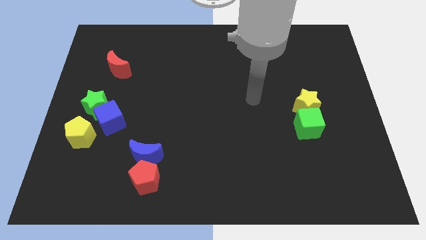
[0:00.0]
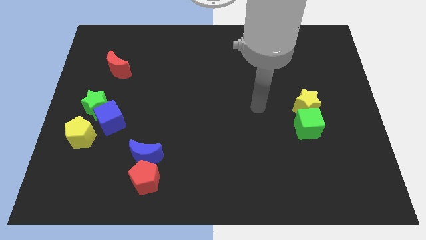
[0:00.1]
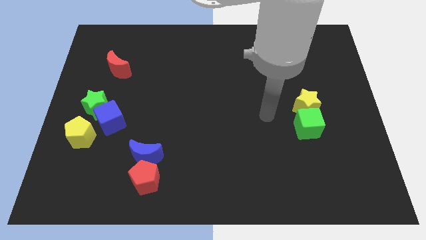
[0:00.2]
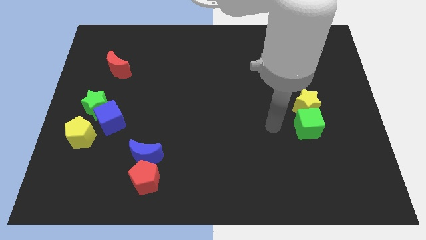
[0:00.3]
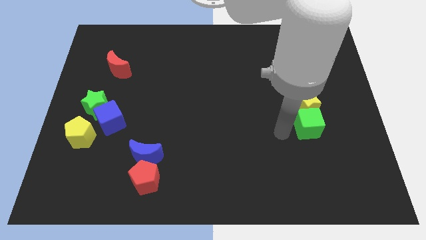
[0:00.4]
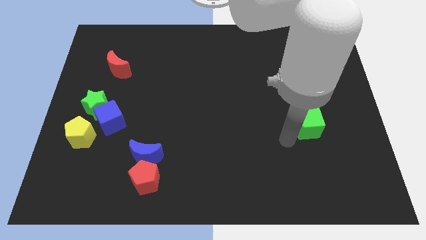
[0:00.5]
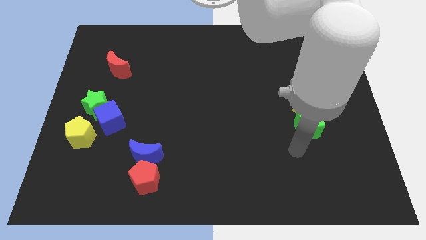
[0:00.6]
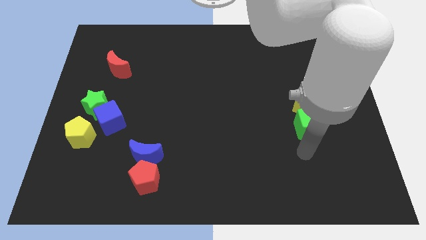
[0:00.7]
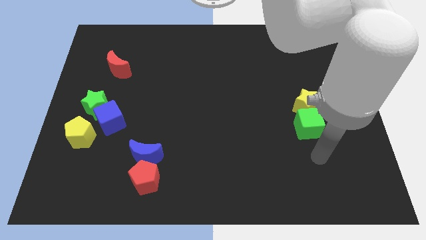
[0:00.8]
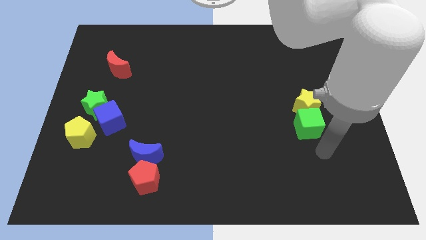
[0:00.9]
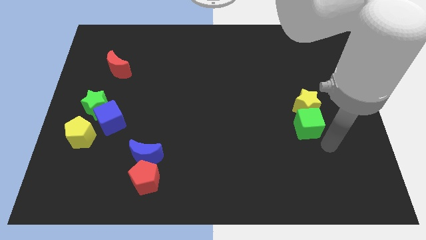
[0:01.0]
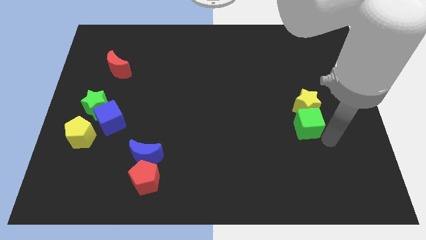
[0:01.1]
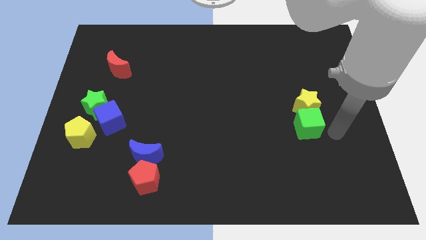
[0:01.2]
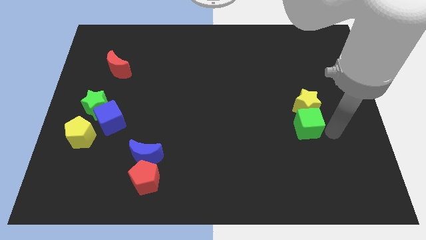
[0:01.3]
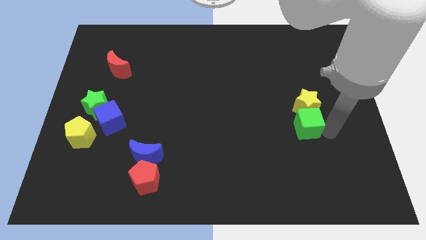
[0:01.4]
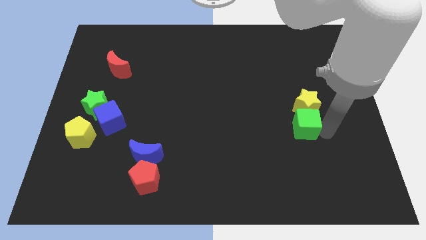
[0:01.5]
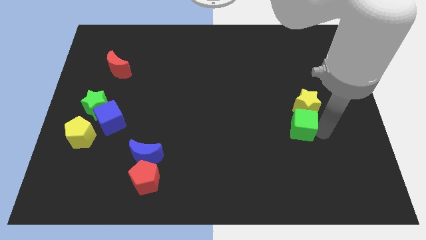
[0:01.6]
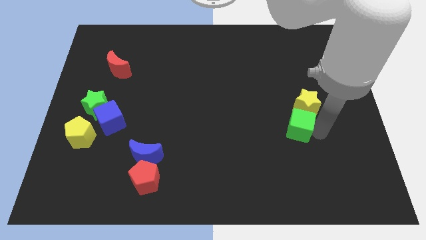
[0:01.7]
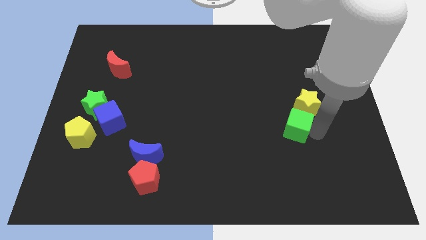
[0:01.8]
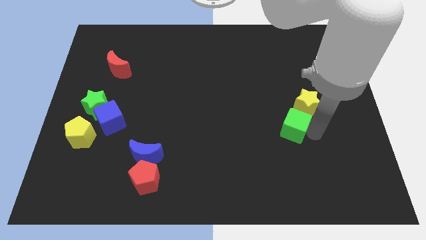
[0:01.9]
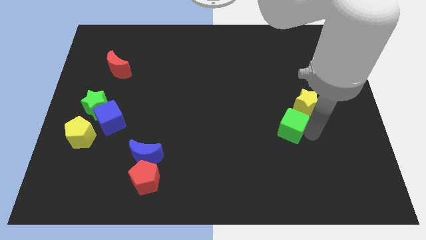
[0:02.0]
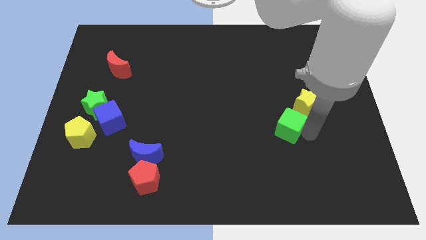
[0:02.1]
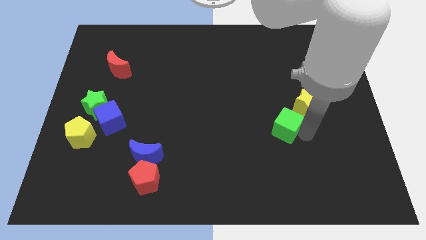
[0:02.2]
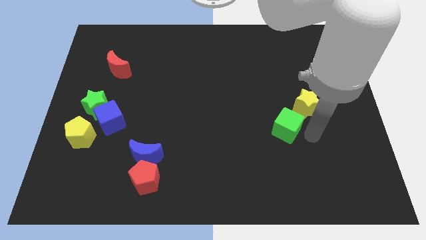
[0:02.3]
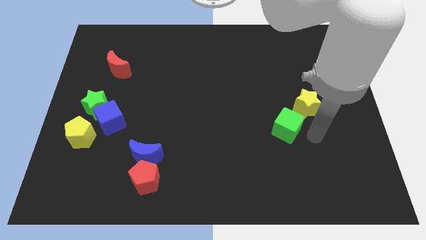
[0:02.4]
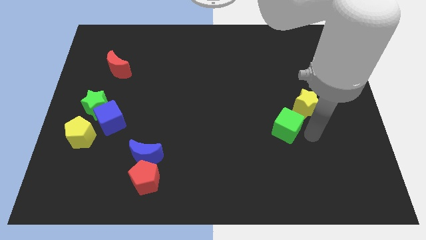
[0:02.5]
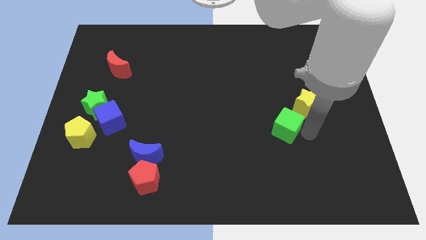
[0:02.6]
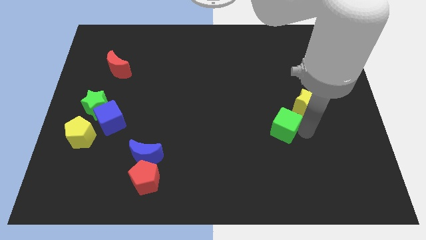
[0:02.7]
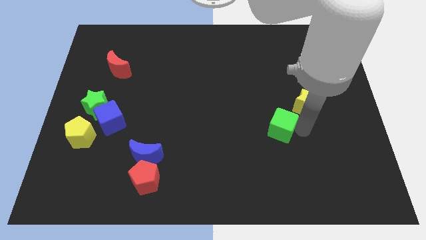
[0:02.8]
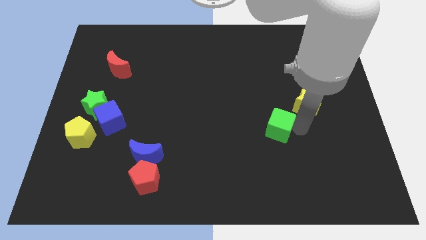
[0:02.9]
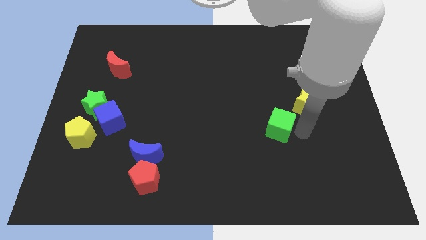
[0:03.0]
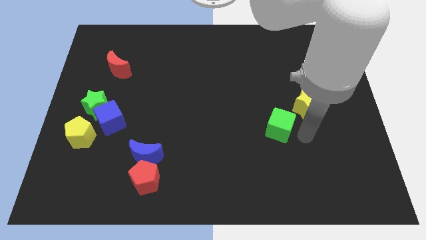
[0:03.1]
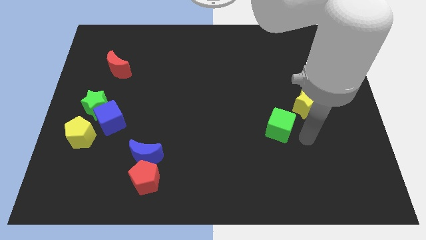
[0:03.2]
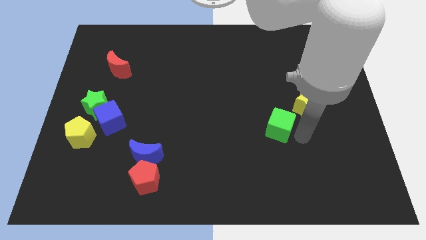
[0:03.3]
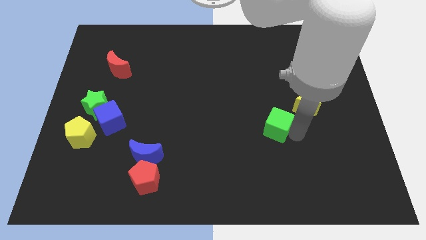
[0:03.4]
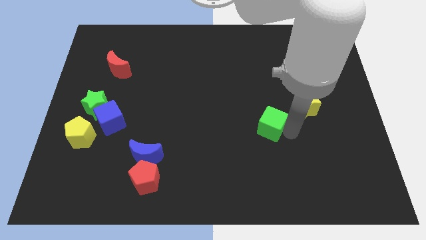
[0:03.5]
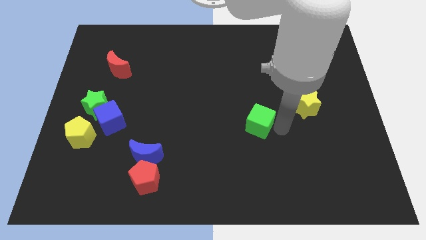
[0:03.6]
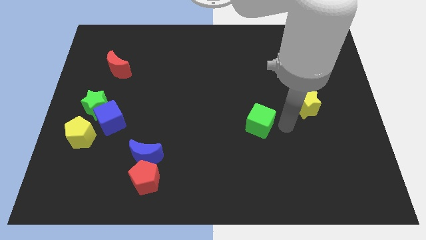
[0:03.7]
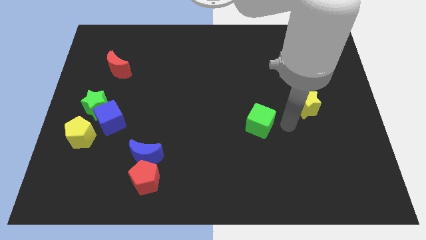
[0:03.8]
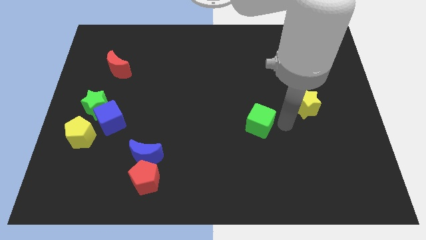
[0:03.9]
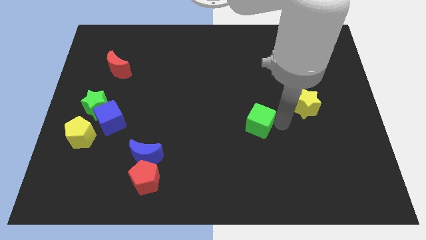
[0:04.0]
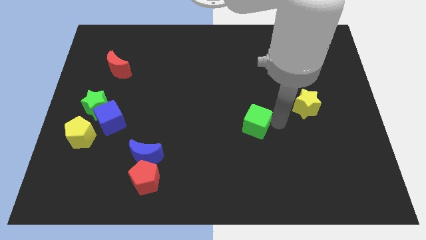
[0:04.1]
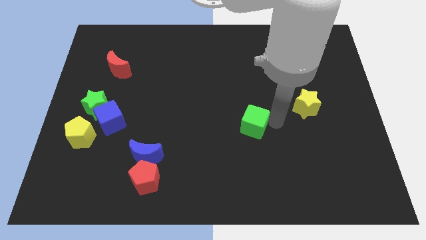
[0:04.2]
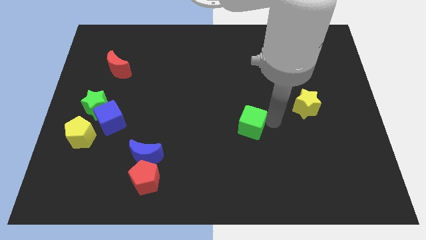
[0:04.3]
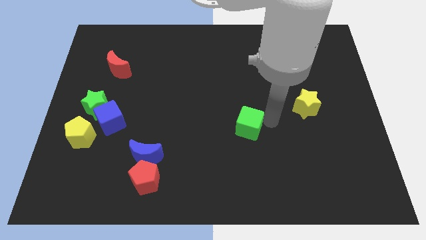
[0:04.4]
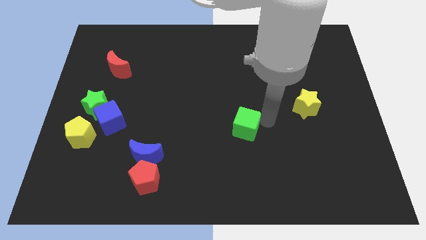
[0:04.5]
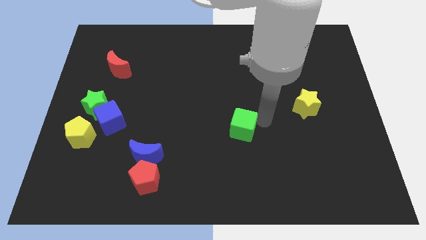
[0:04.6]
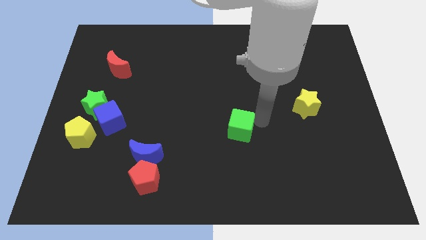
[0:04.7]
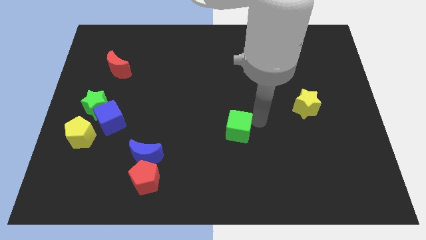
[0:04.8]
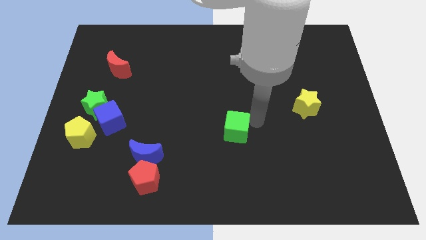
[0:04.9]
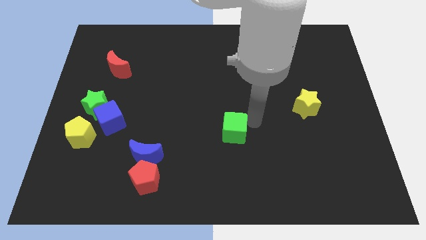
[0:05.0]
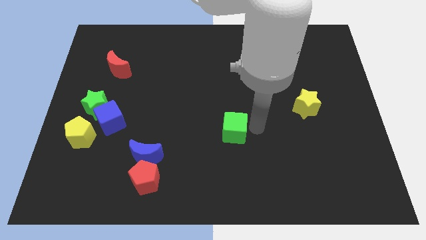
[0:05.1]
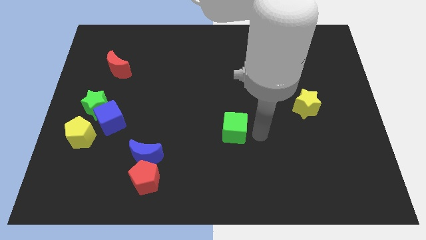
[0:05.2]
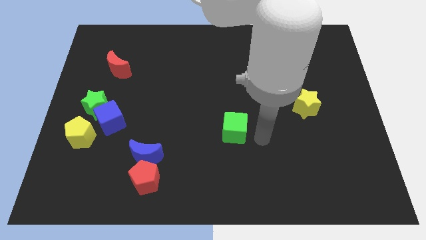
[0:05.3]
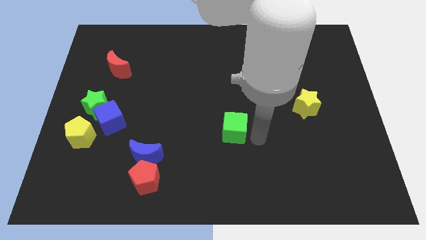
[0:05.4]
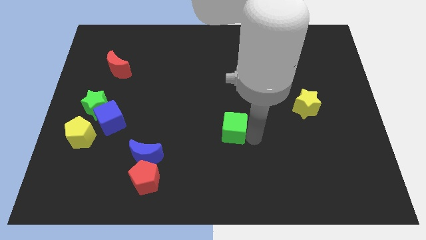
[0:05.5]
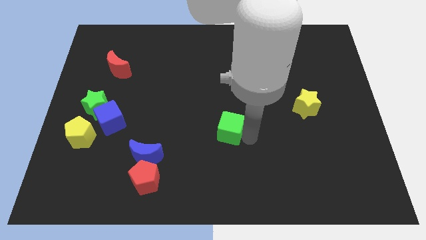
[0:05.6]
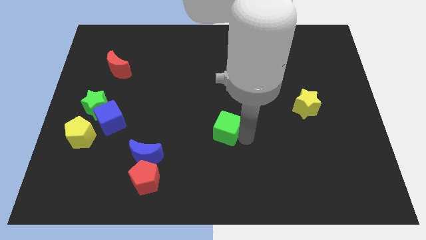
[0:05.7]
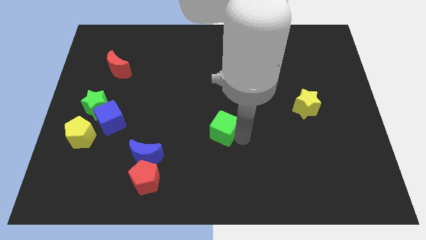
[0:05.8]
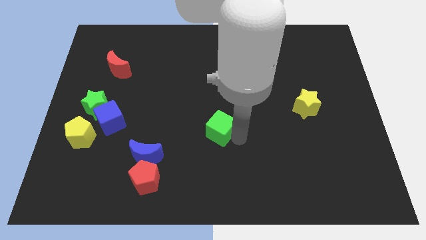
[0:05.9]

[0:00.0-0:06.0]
slide the green cube left

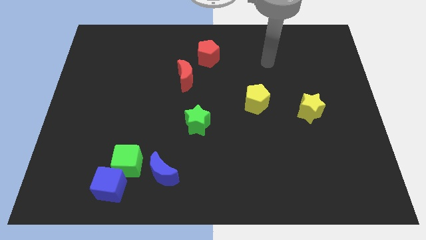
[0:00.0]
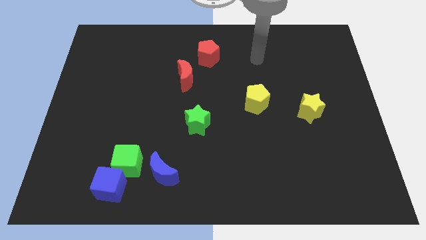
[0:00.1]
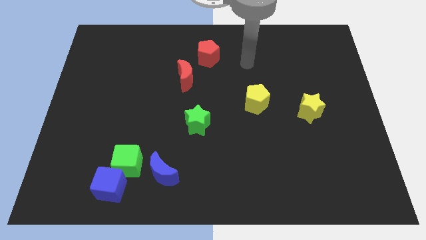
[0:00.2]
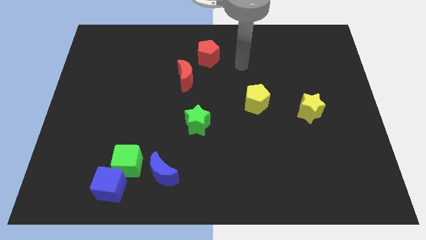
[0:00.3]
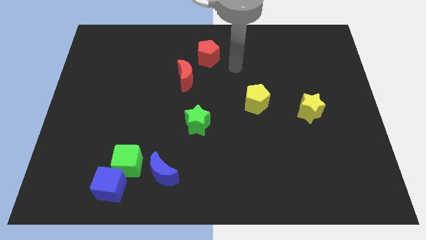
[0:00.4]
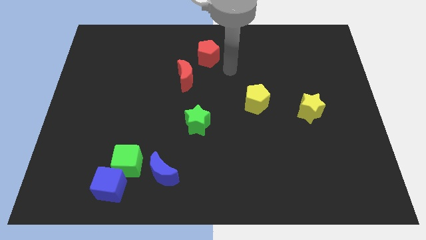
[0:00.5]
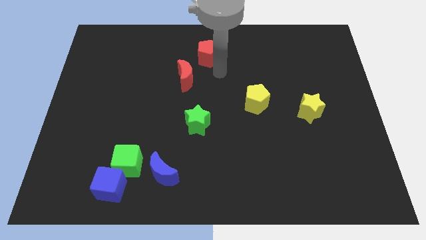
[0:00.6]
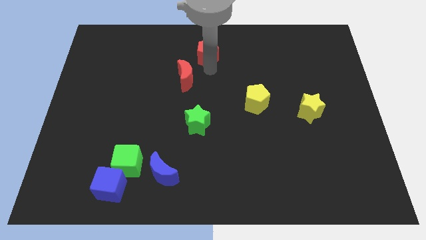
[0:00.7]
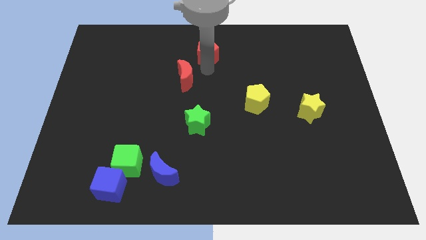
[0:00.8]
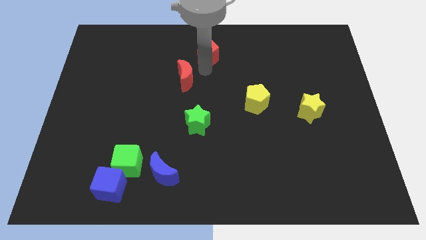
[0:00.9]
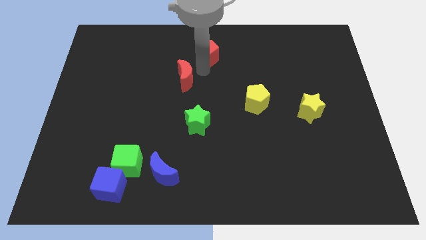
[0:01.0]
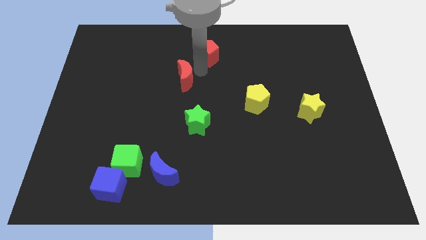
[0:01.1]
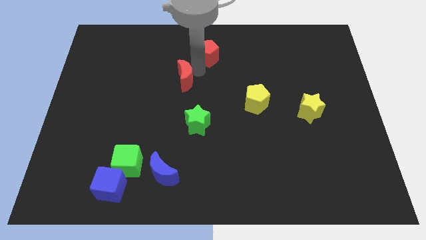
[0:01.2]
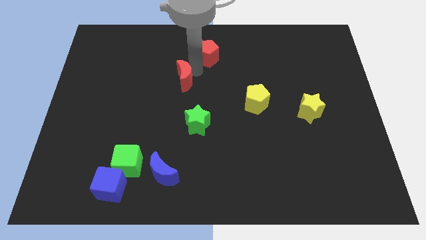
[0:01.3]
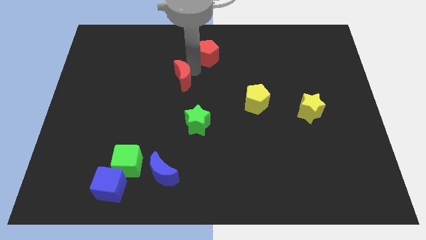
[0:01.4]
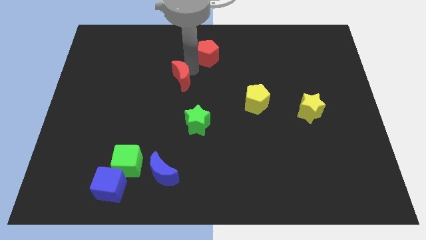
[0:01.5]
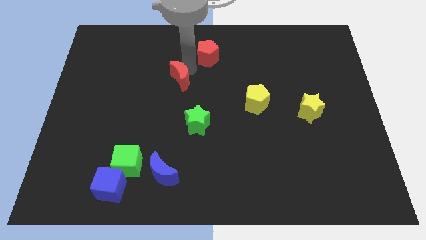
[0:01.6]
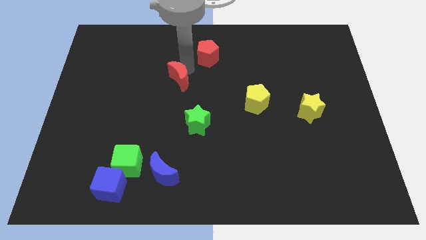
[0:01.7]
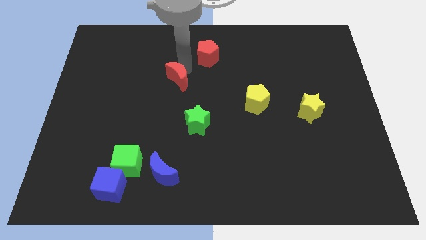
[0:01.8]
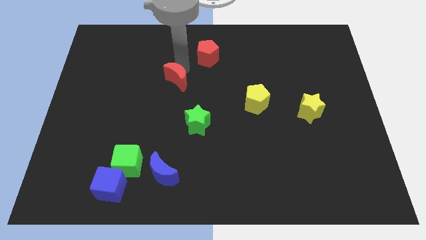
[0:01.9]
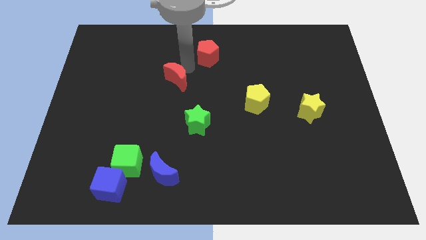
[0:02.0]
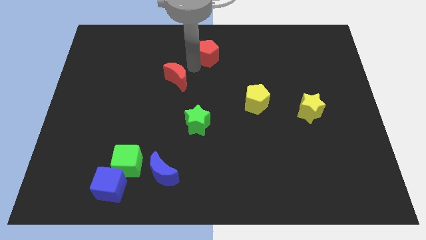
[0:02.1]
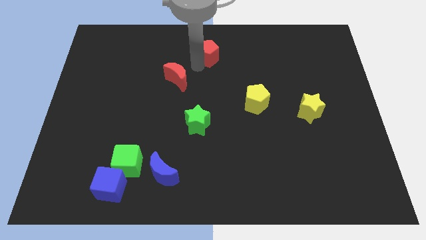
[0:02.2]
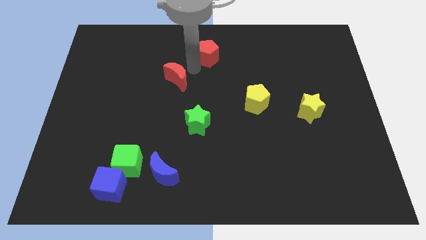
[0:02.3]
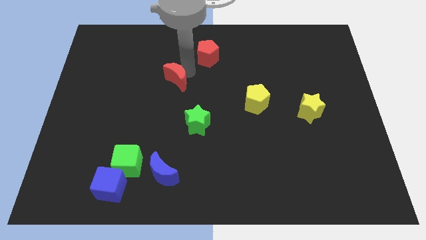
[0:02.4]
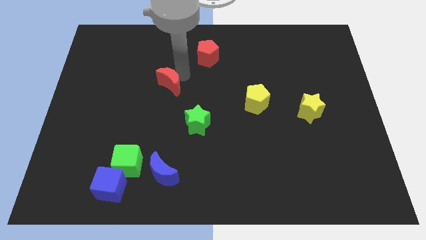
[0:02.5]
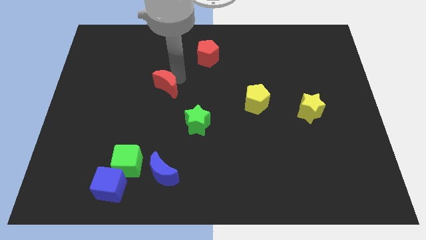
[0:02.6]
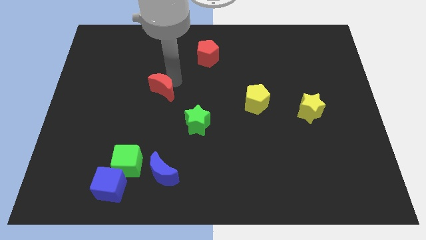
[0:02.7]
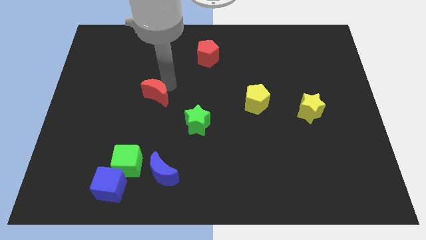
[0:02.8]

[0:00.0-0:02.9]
slightly slide the red moon downwards and then left
